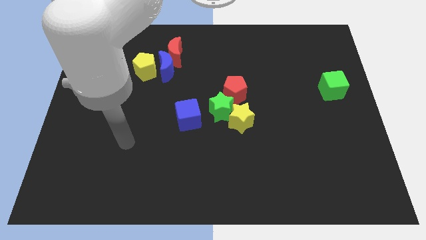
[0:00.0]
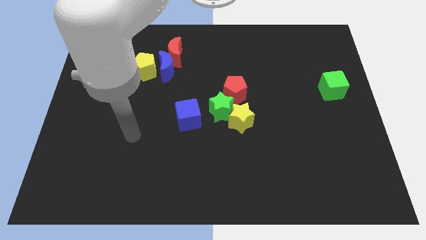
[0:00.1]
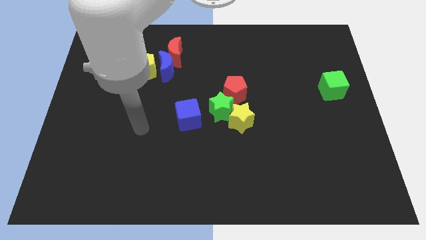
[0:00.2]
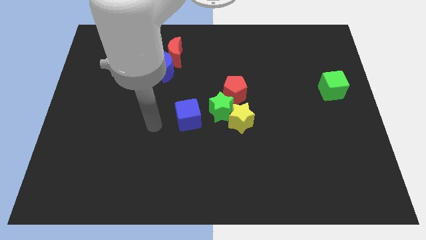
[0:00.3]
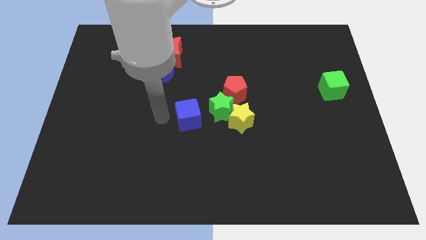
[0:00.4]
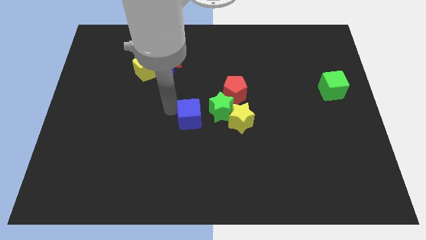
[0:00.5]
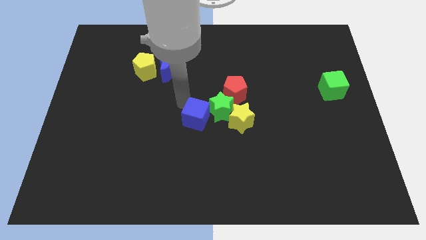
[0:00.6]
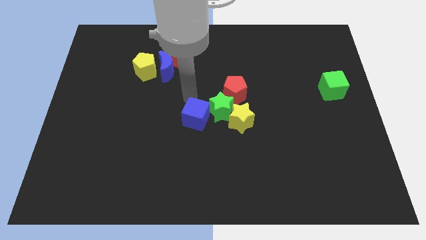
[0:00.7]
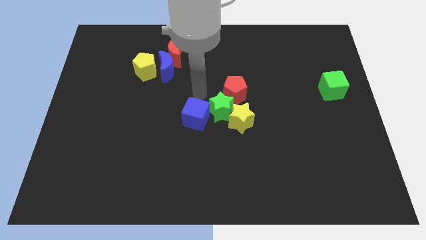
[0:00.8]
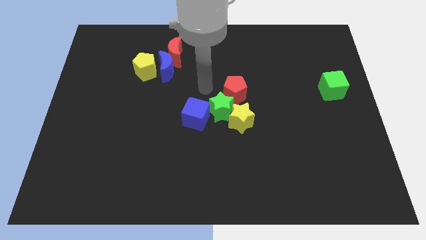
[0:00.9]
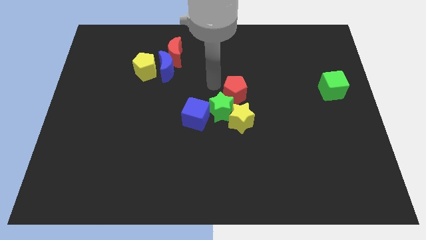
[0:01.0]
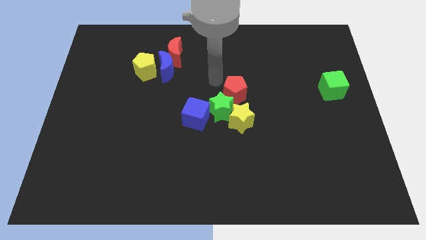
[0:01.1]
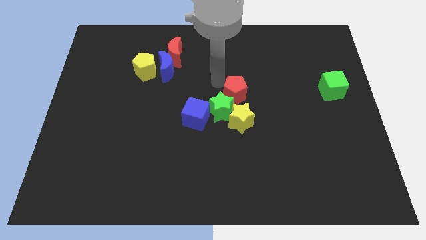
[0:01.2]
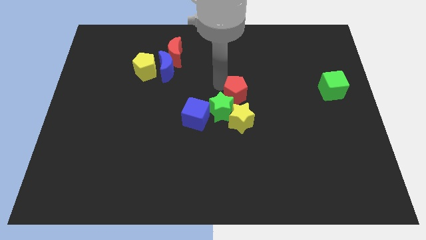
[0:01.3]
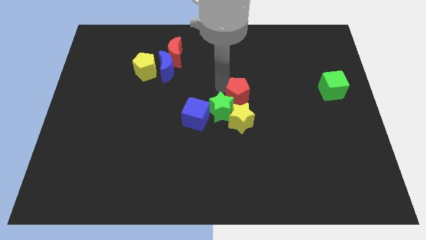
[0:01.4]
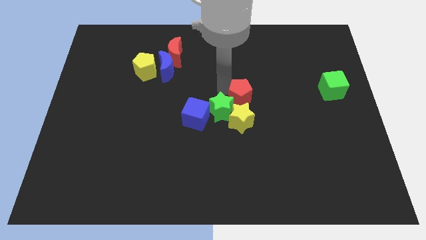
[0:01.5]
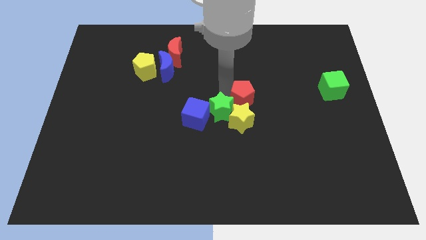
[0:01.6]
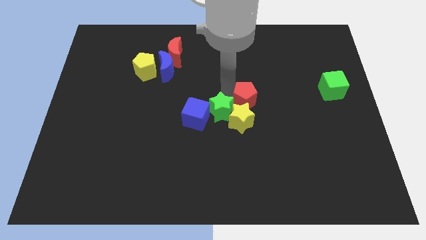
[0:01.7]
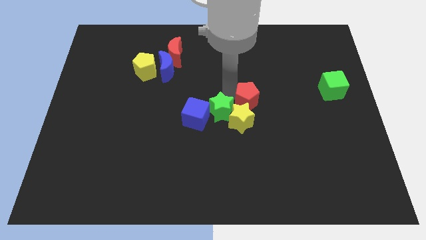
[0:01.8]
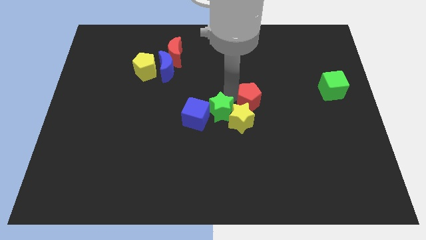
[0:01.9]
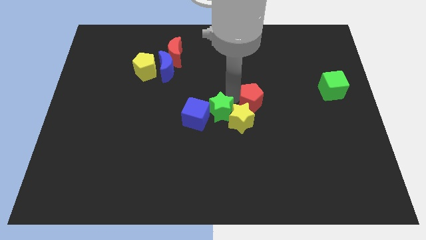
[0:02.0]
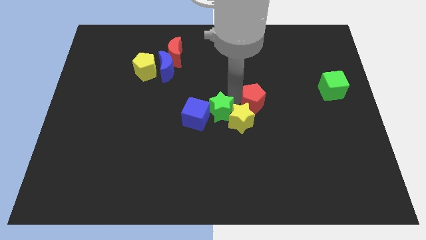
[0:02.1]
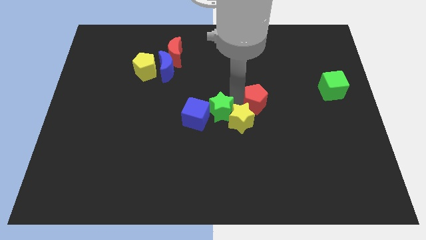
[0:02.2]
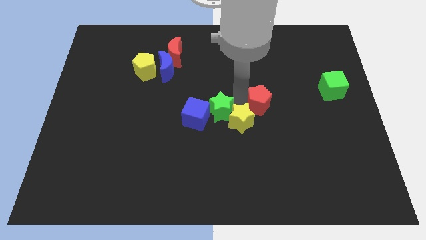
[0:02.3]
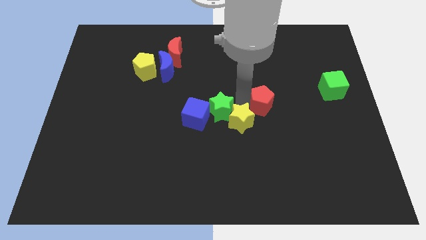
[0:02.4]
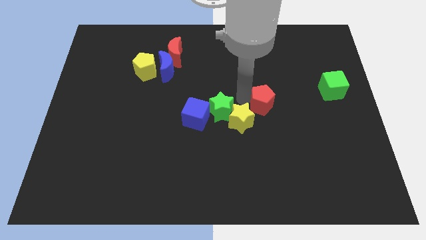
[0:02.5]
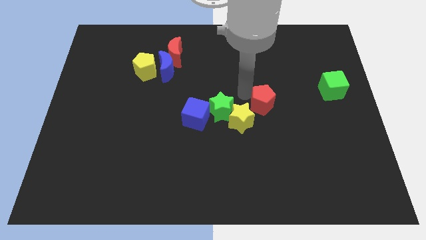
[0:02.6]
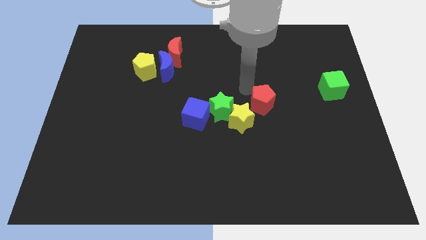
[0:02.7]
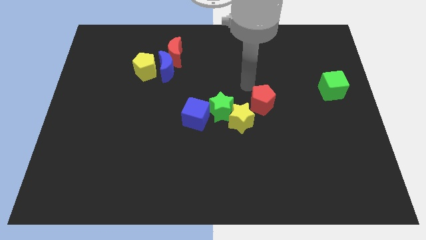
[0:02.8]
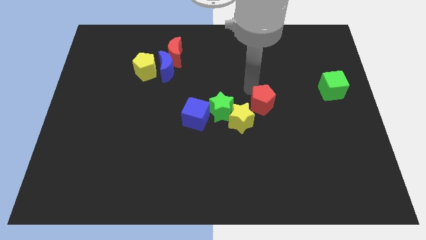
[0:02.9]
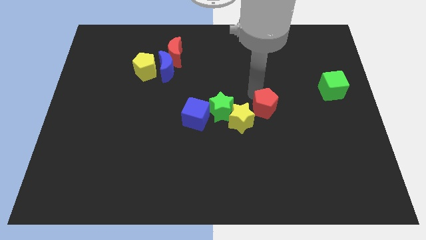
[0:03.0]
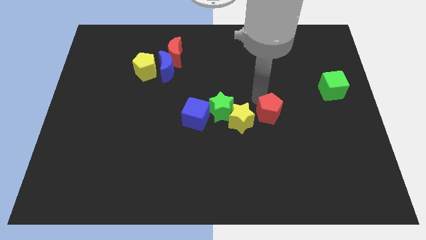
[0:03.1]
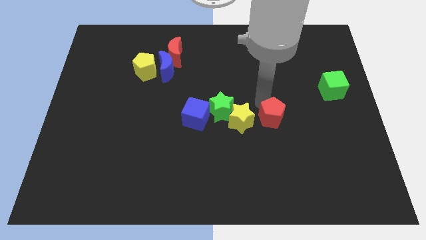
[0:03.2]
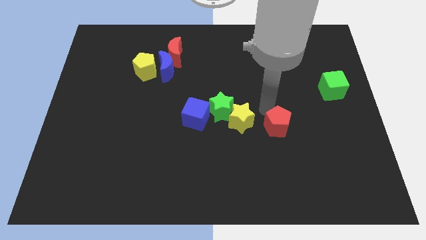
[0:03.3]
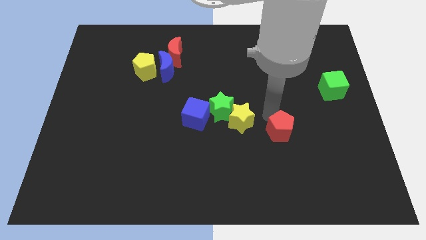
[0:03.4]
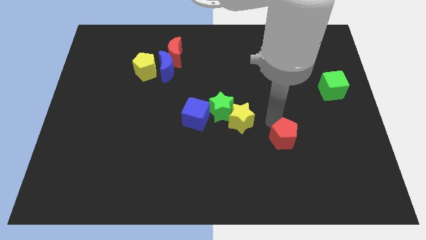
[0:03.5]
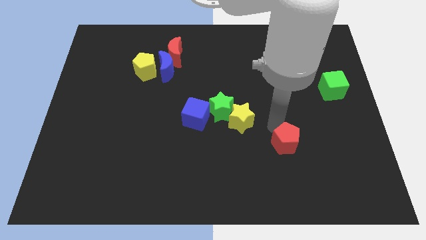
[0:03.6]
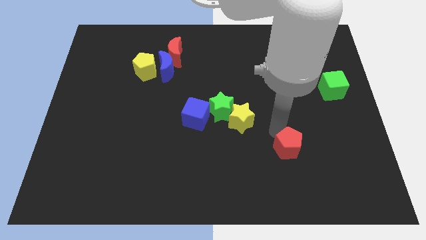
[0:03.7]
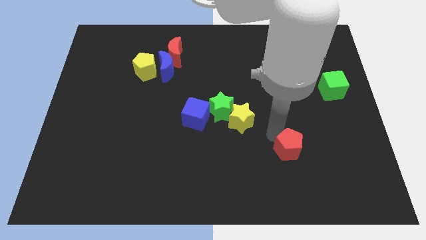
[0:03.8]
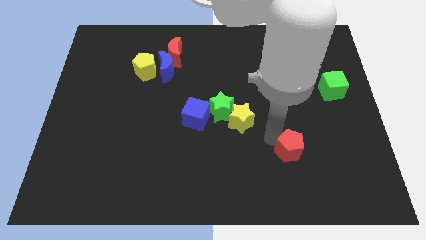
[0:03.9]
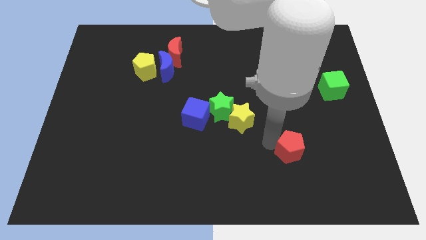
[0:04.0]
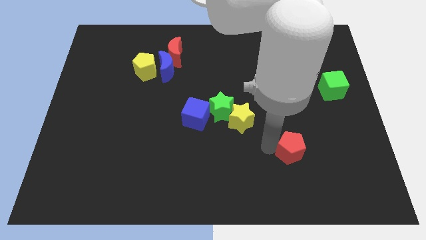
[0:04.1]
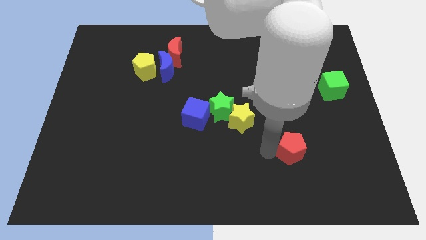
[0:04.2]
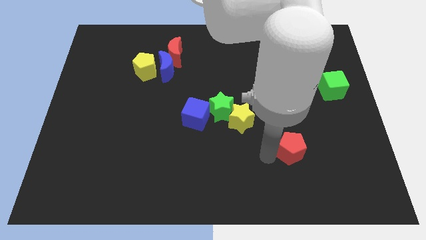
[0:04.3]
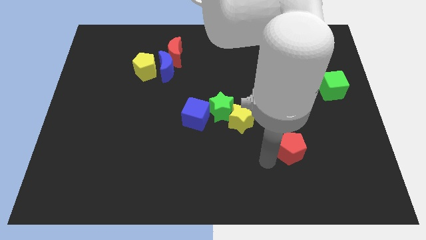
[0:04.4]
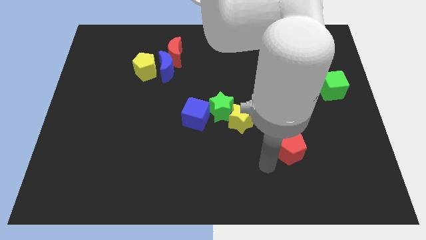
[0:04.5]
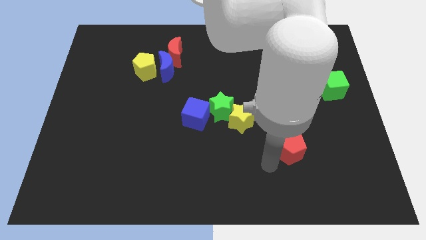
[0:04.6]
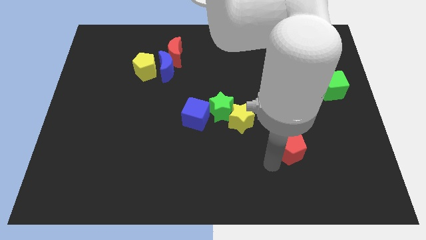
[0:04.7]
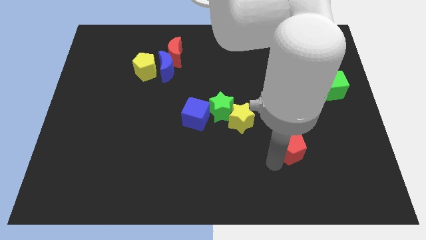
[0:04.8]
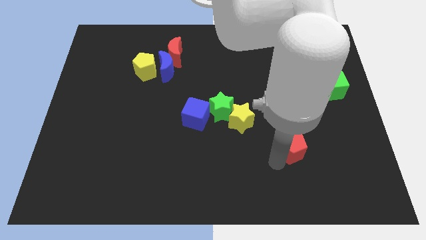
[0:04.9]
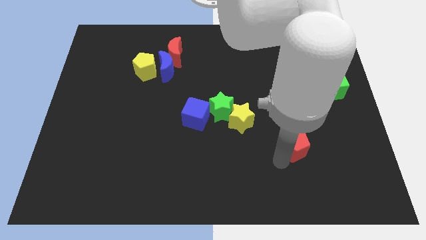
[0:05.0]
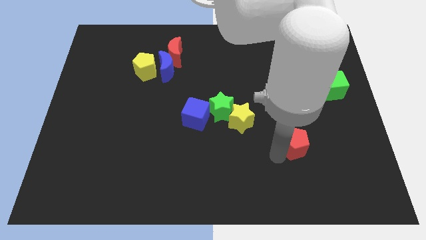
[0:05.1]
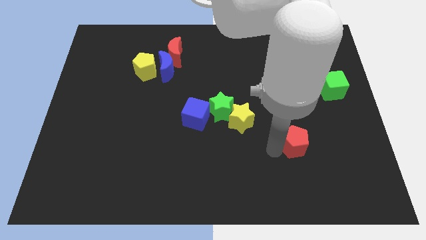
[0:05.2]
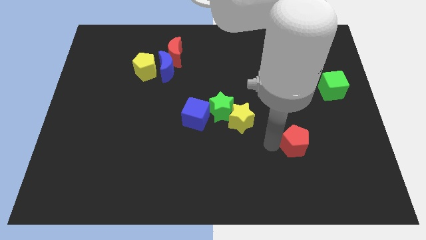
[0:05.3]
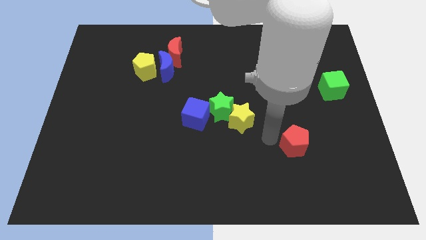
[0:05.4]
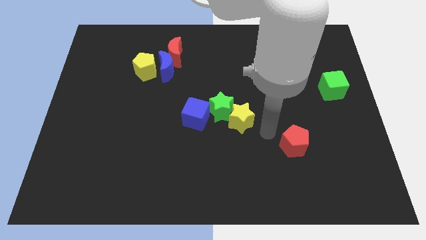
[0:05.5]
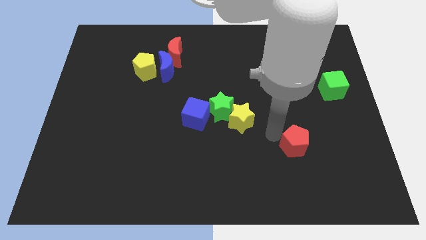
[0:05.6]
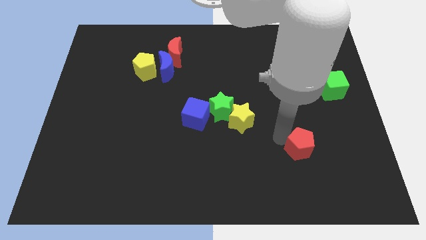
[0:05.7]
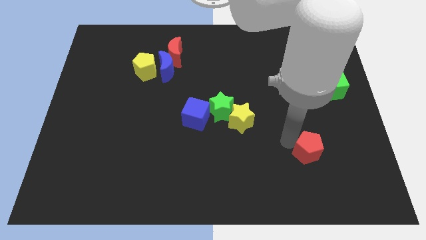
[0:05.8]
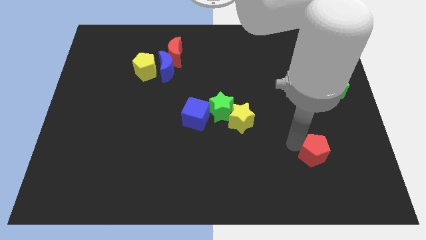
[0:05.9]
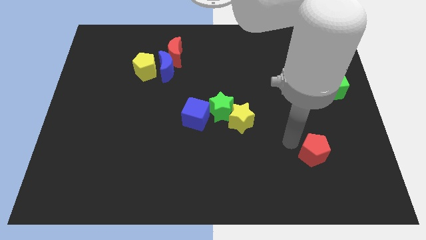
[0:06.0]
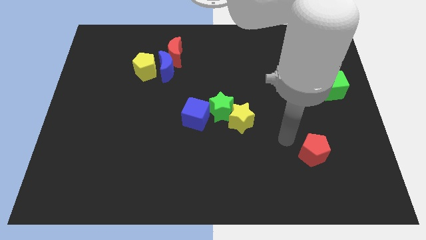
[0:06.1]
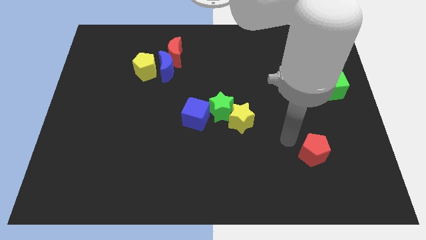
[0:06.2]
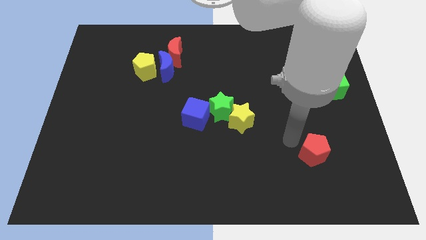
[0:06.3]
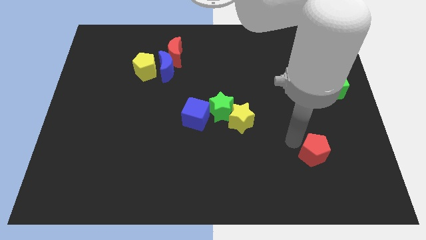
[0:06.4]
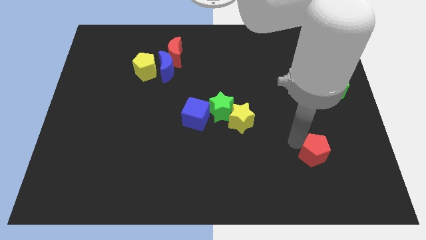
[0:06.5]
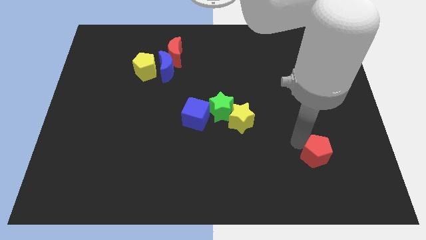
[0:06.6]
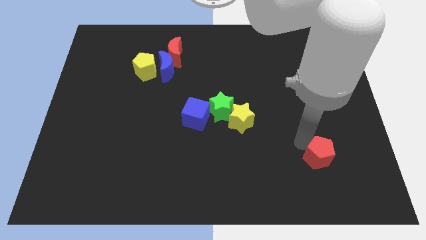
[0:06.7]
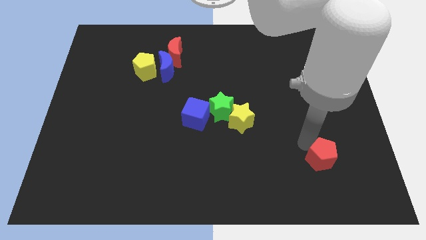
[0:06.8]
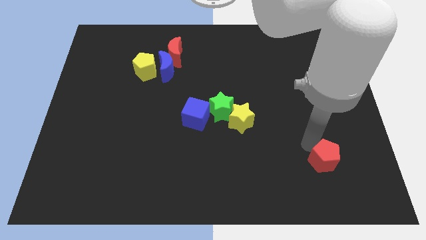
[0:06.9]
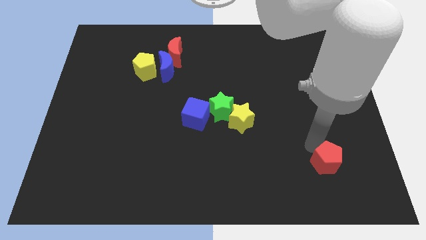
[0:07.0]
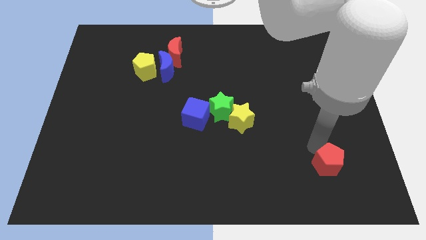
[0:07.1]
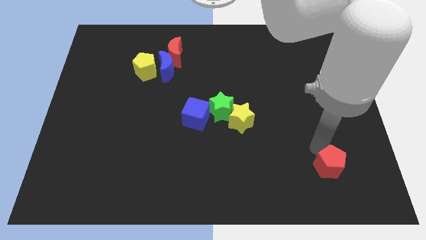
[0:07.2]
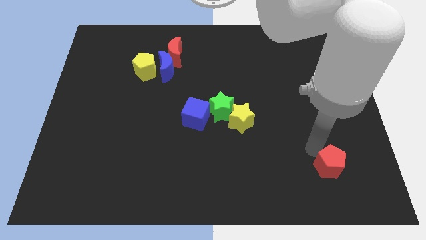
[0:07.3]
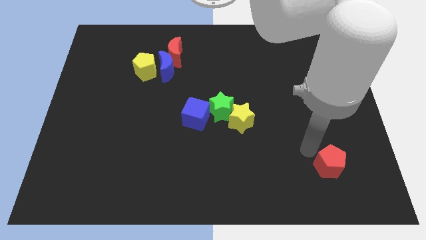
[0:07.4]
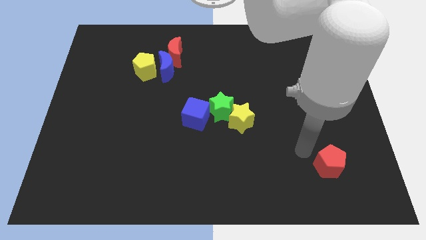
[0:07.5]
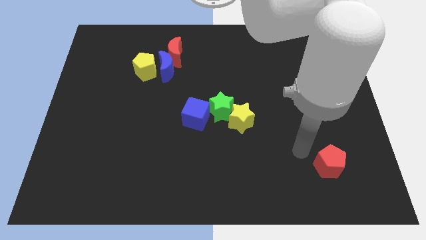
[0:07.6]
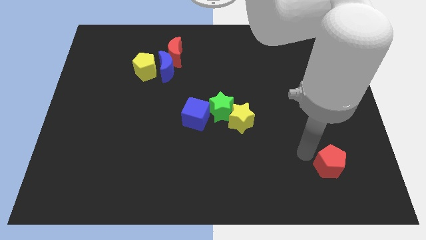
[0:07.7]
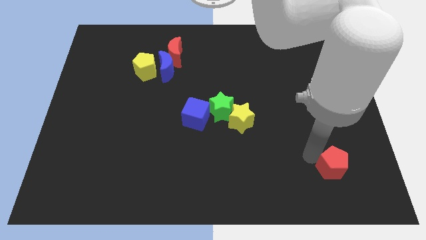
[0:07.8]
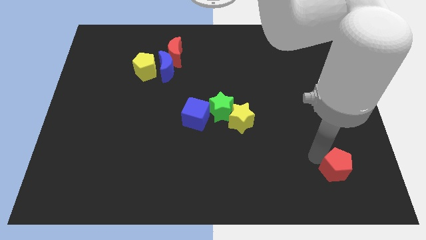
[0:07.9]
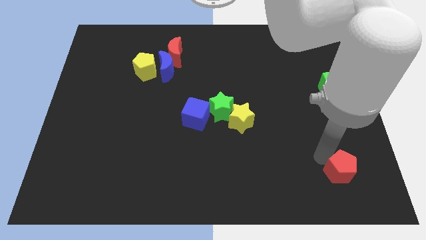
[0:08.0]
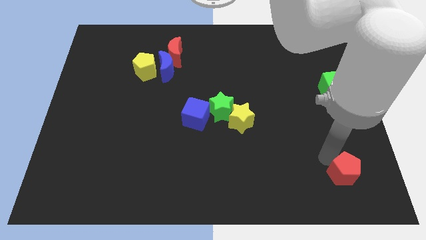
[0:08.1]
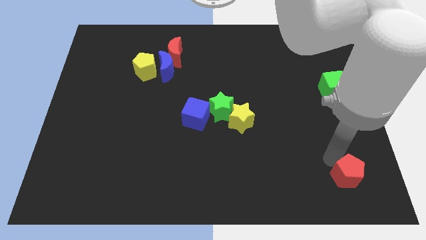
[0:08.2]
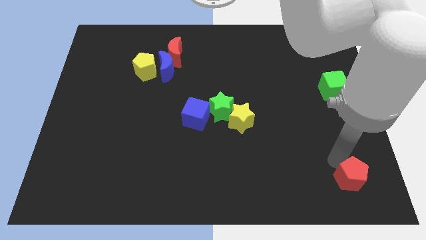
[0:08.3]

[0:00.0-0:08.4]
push the red pentagon to the bottom right corner
